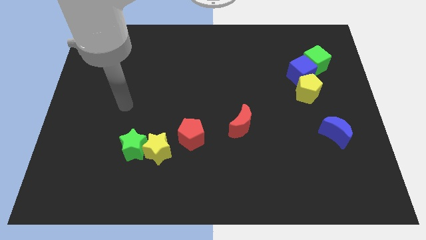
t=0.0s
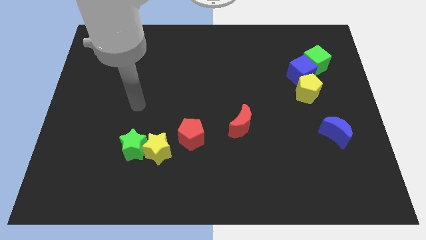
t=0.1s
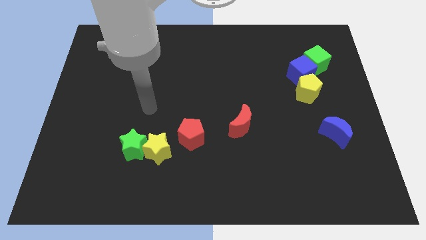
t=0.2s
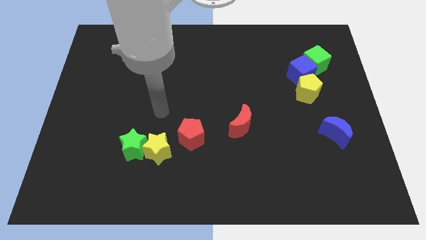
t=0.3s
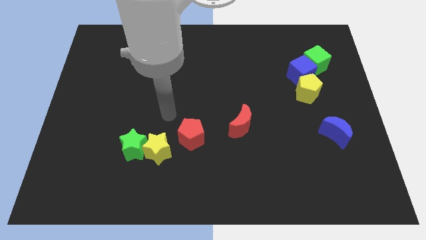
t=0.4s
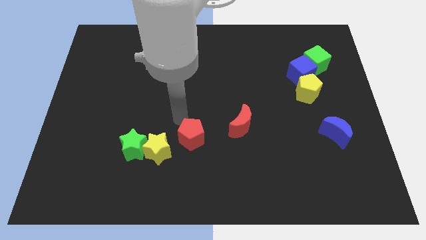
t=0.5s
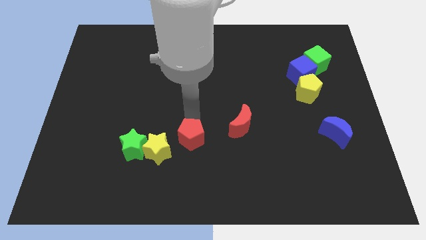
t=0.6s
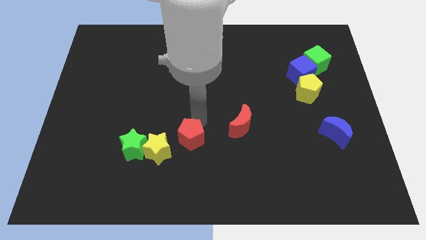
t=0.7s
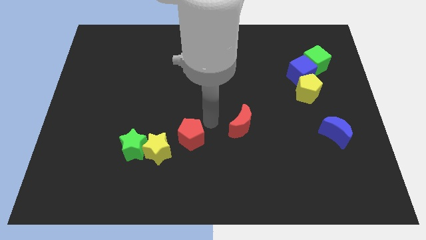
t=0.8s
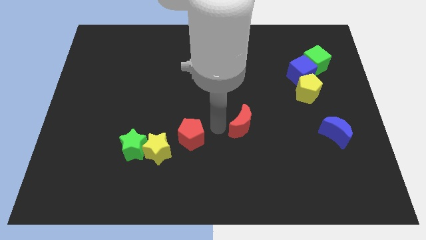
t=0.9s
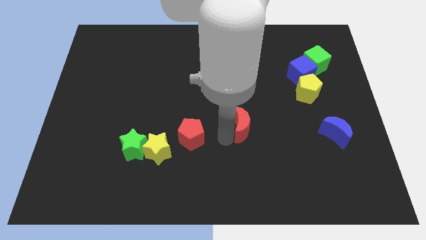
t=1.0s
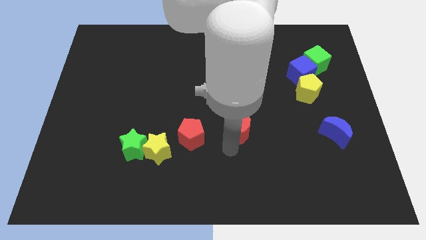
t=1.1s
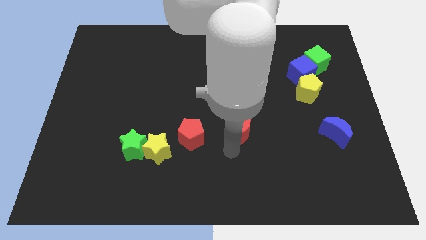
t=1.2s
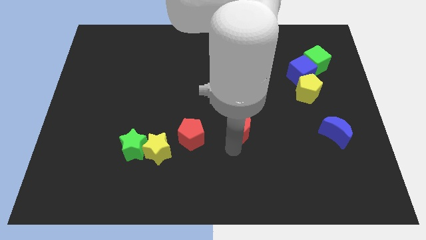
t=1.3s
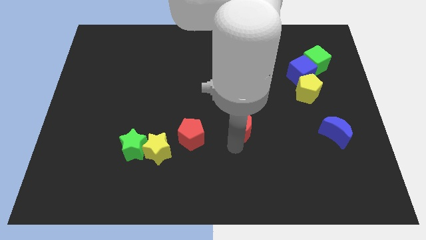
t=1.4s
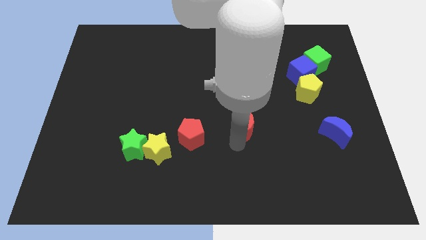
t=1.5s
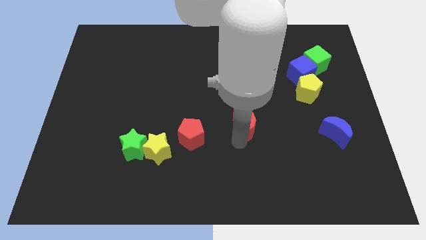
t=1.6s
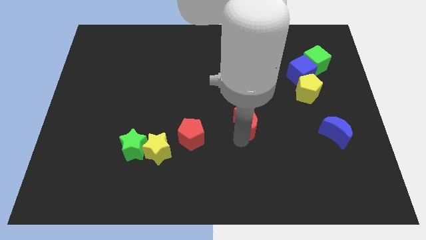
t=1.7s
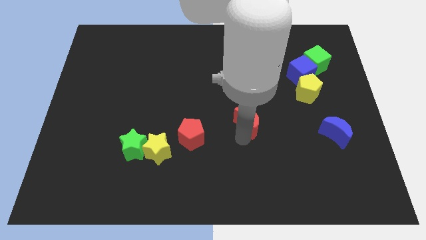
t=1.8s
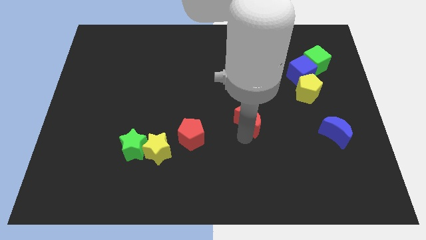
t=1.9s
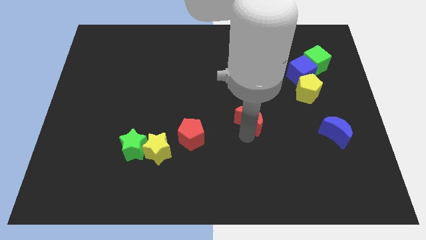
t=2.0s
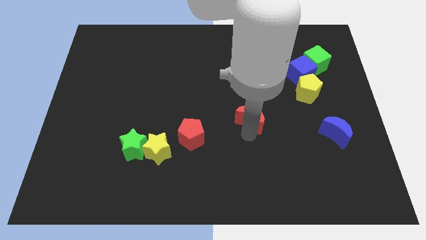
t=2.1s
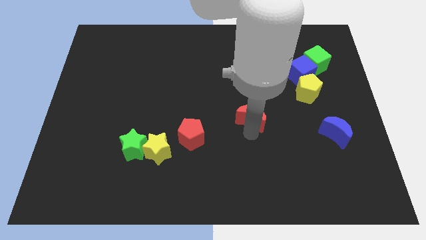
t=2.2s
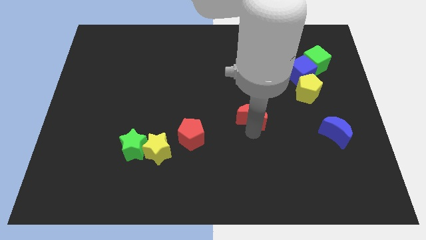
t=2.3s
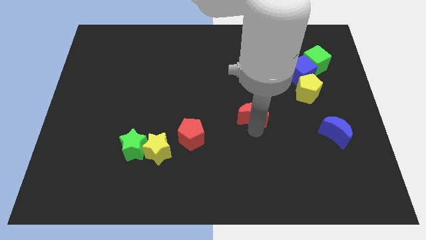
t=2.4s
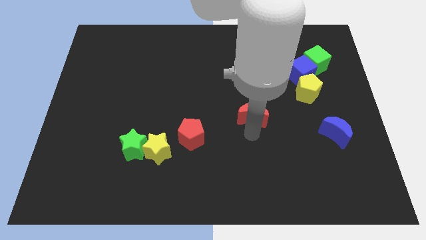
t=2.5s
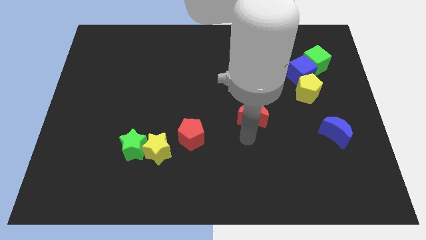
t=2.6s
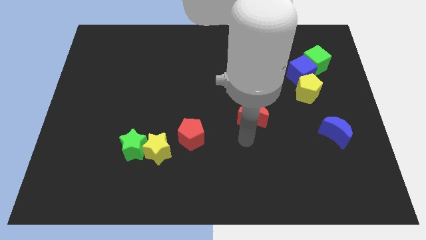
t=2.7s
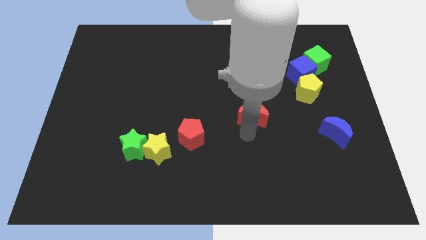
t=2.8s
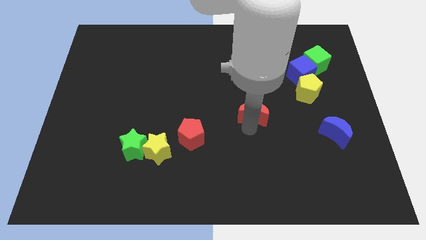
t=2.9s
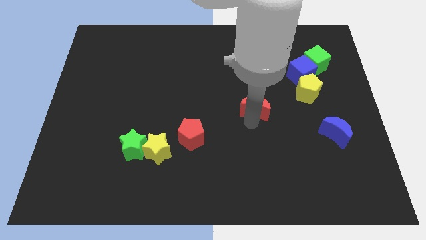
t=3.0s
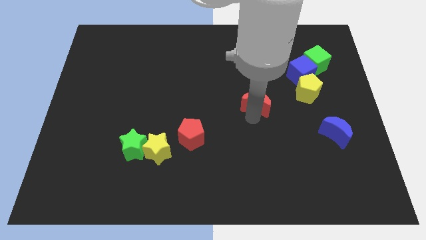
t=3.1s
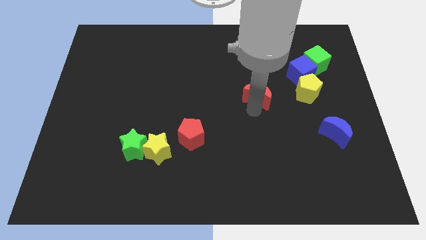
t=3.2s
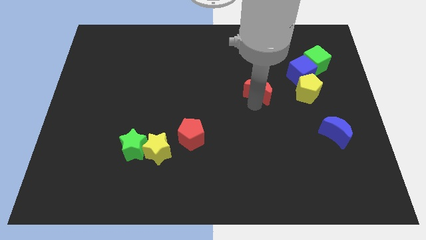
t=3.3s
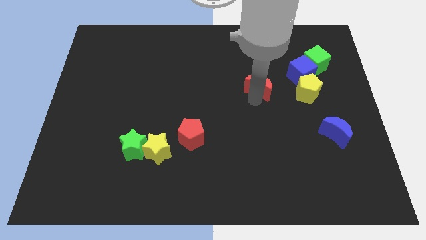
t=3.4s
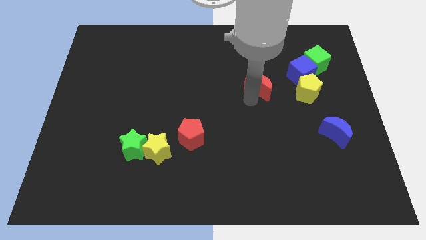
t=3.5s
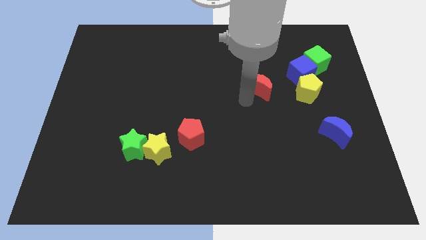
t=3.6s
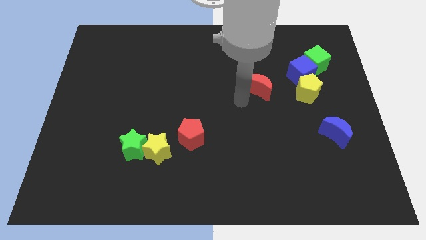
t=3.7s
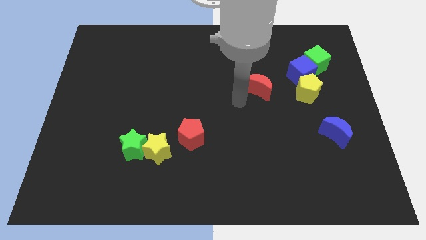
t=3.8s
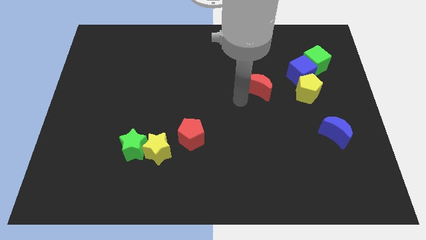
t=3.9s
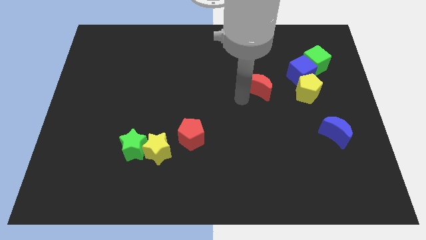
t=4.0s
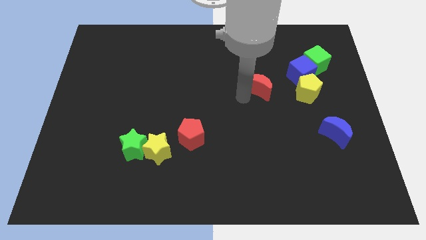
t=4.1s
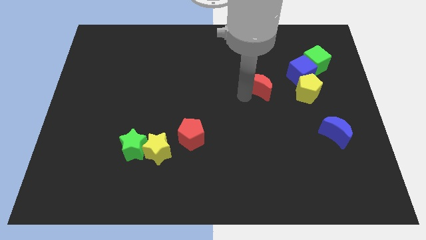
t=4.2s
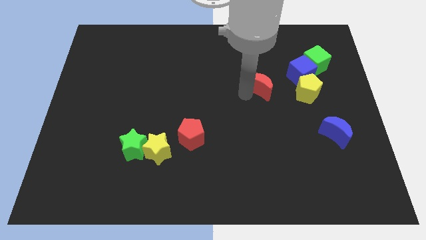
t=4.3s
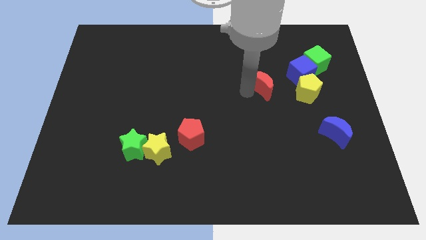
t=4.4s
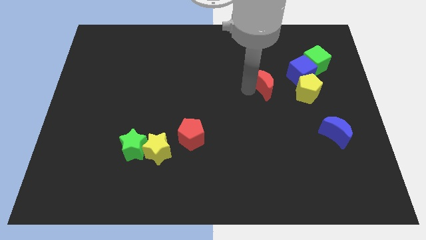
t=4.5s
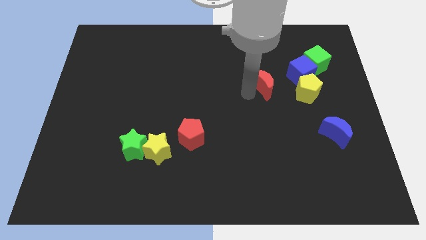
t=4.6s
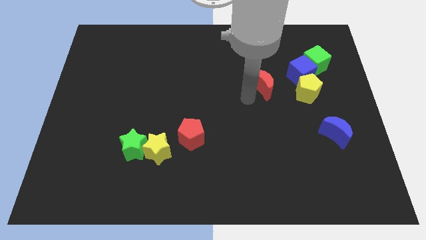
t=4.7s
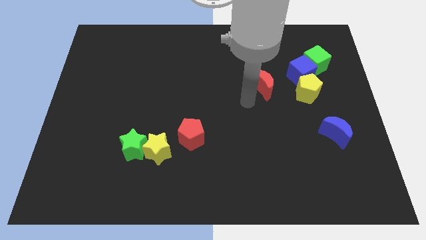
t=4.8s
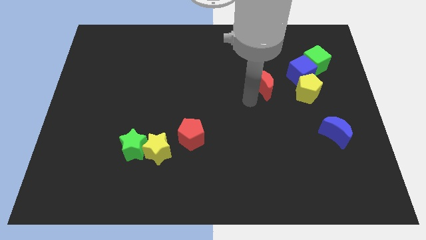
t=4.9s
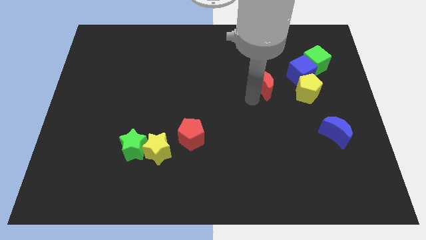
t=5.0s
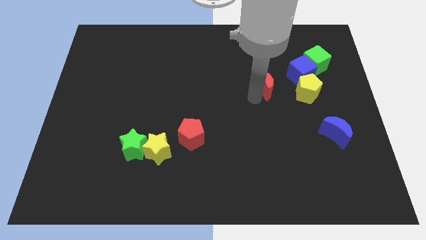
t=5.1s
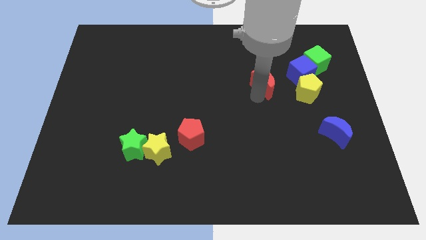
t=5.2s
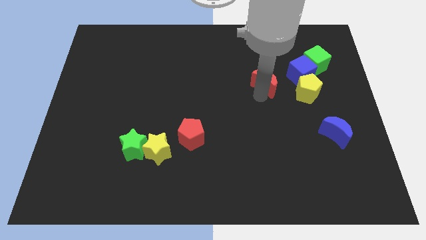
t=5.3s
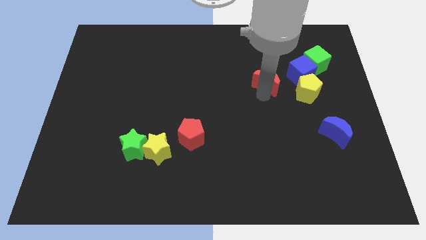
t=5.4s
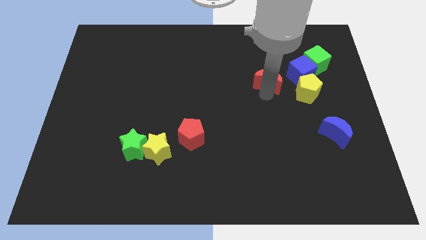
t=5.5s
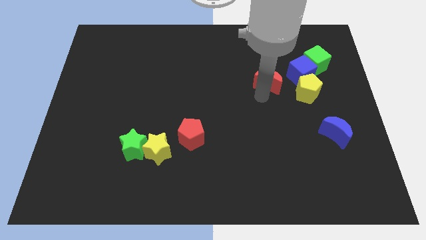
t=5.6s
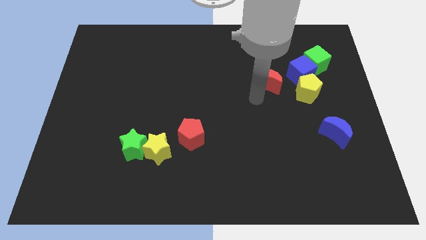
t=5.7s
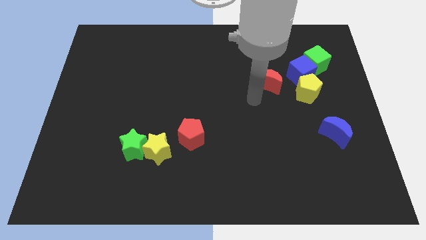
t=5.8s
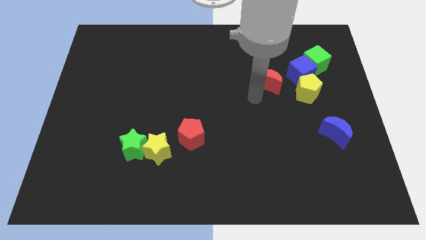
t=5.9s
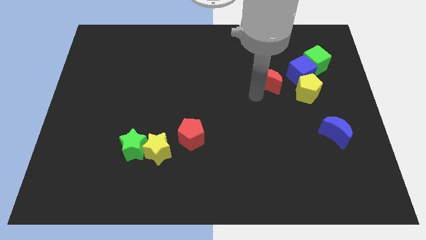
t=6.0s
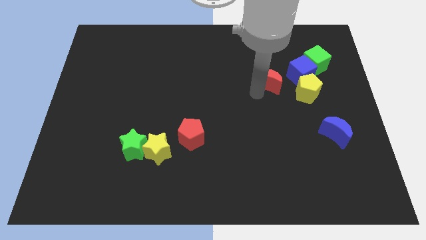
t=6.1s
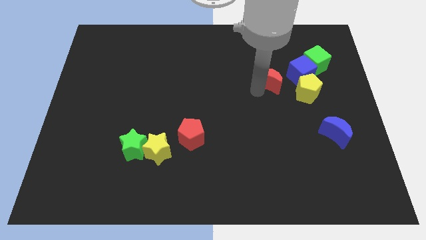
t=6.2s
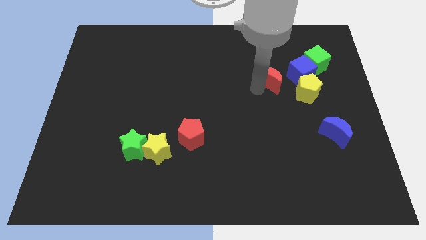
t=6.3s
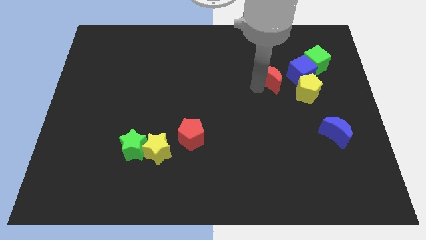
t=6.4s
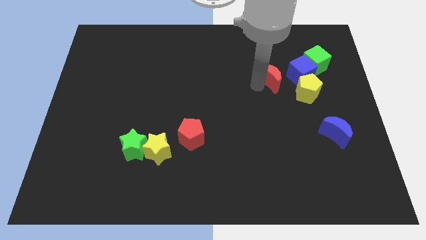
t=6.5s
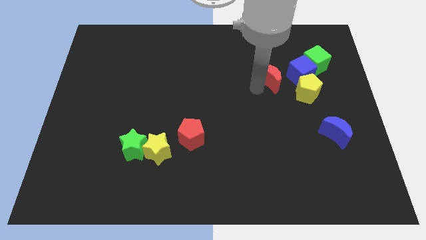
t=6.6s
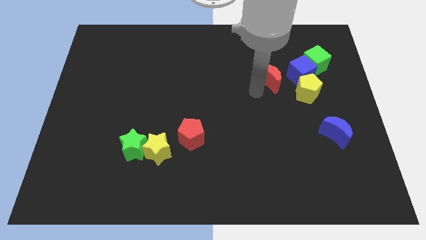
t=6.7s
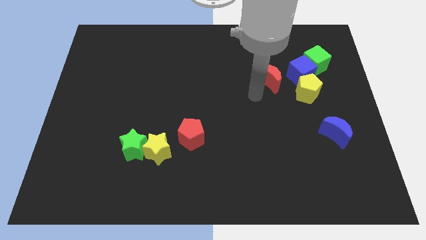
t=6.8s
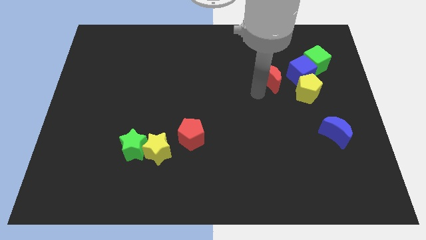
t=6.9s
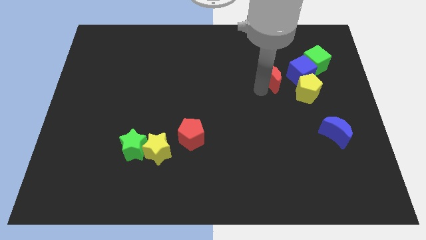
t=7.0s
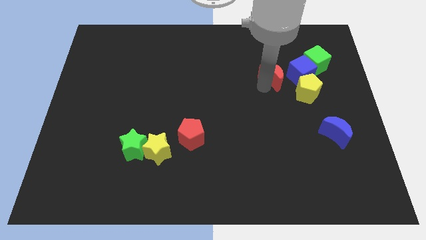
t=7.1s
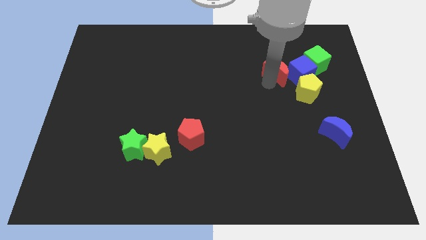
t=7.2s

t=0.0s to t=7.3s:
slide the red moon to the top left side of the blue cube
